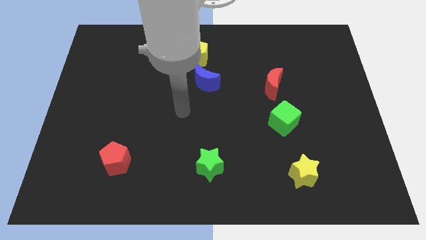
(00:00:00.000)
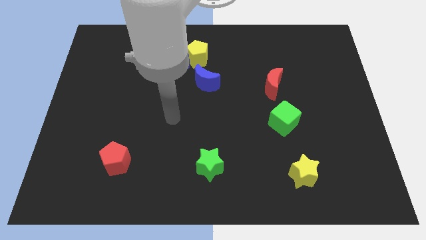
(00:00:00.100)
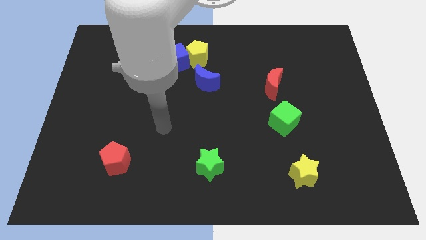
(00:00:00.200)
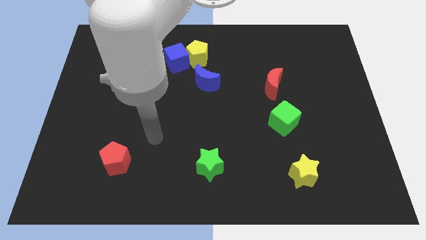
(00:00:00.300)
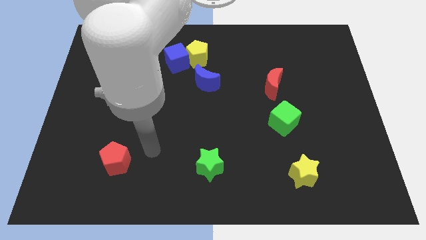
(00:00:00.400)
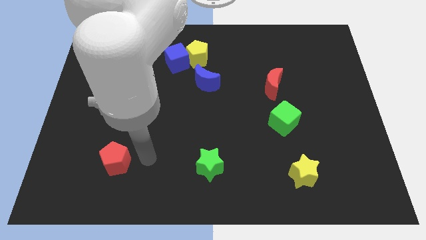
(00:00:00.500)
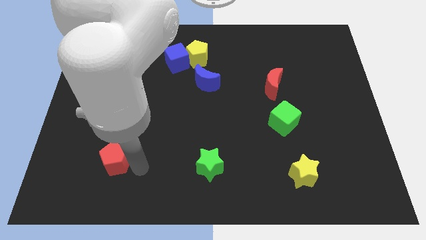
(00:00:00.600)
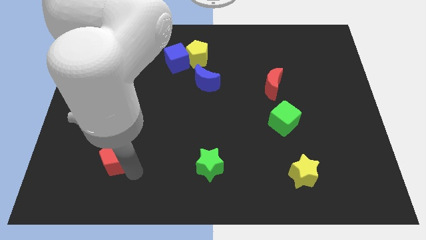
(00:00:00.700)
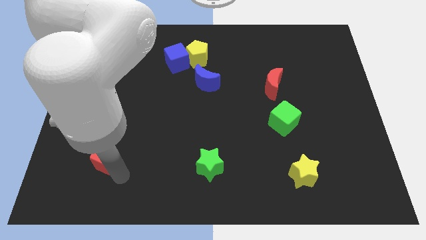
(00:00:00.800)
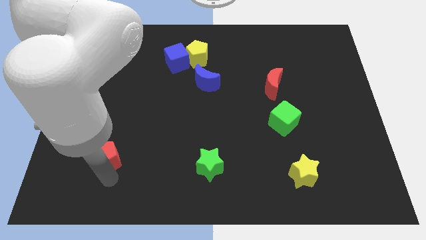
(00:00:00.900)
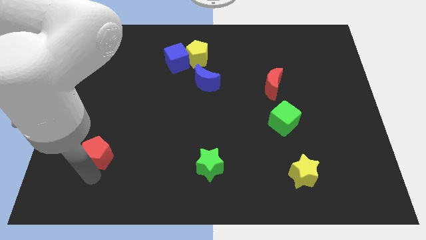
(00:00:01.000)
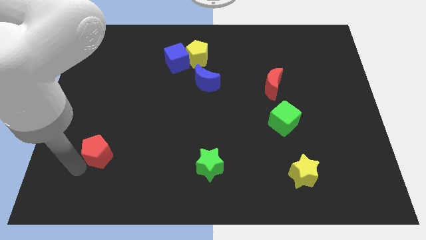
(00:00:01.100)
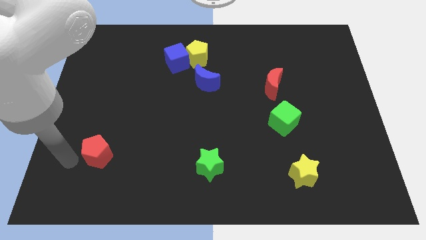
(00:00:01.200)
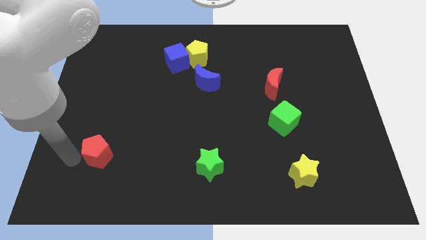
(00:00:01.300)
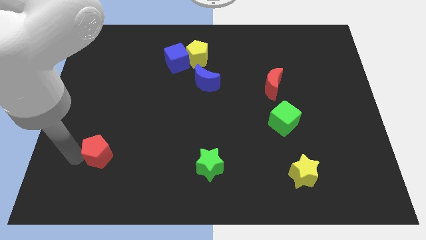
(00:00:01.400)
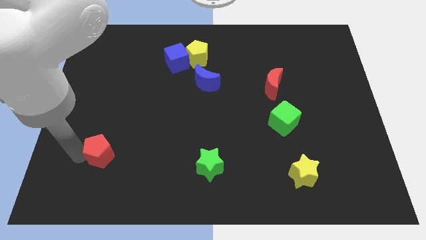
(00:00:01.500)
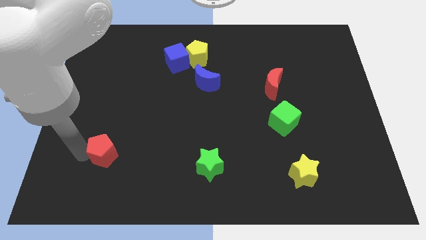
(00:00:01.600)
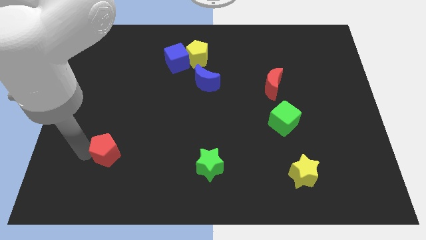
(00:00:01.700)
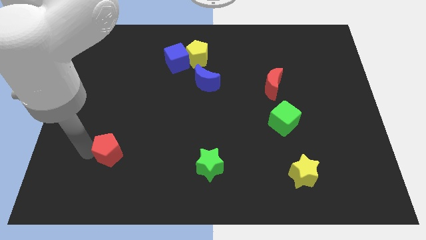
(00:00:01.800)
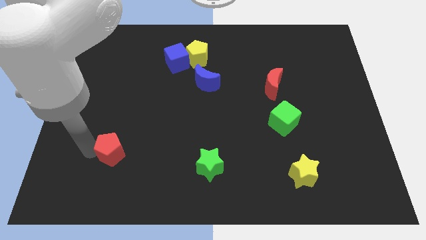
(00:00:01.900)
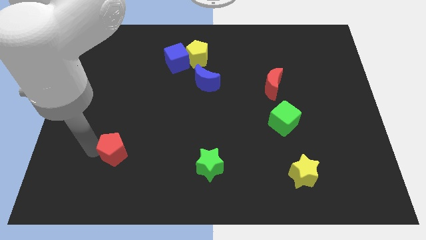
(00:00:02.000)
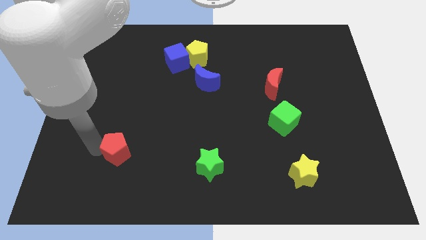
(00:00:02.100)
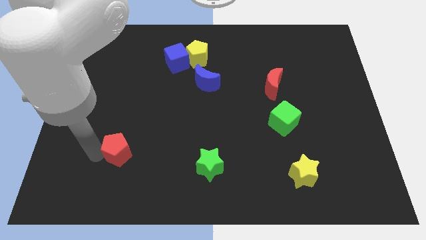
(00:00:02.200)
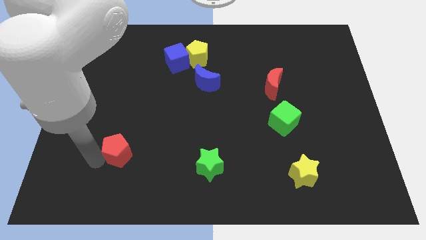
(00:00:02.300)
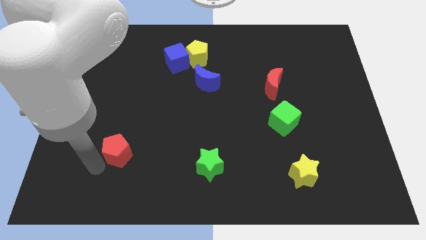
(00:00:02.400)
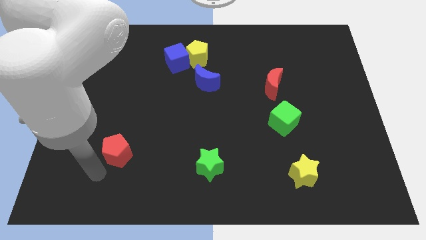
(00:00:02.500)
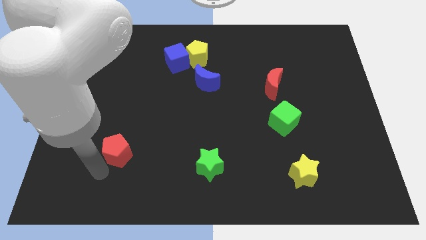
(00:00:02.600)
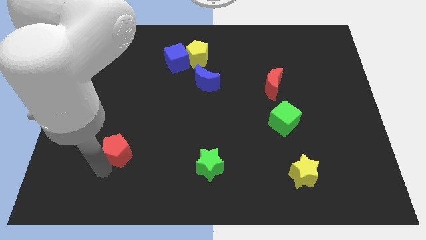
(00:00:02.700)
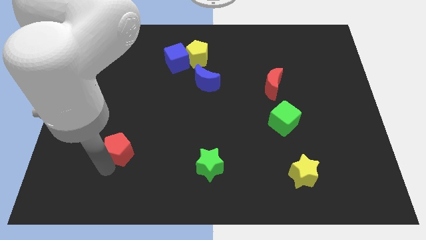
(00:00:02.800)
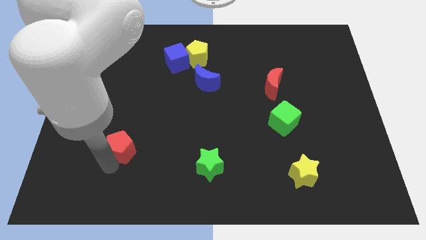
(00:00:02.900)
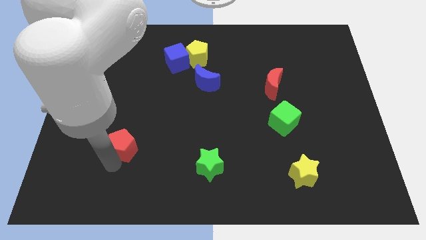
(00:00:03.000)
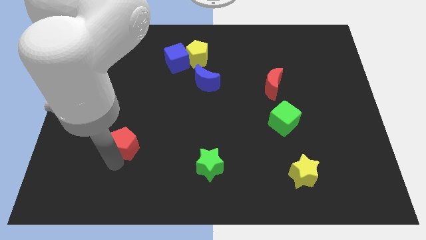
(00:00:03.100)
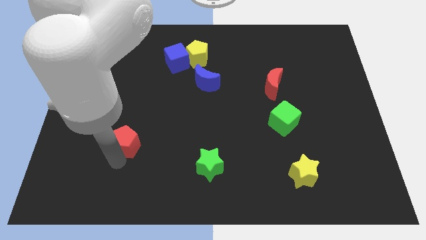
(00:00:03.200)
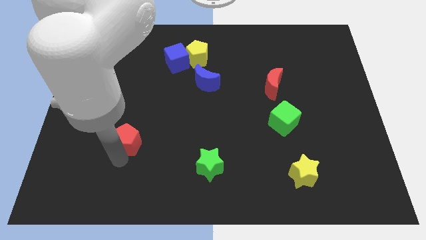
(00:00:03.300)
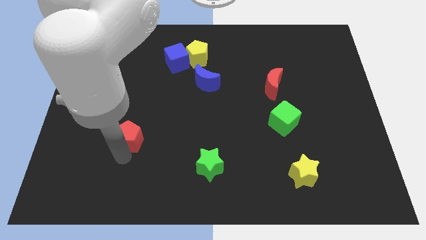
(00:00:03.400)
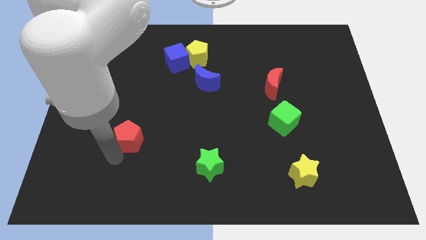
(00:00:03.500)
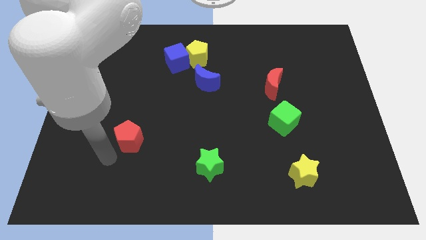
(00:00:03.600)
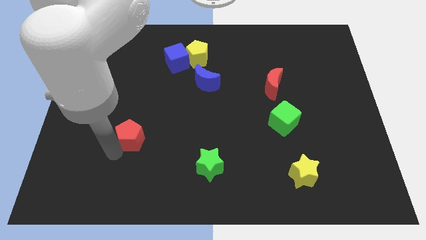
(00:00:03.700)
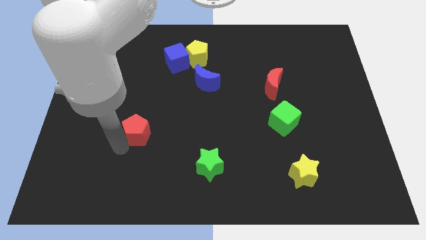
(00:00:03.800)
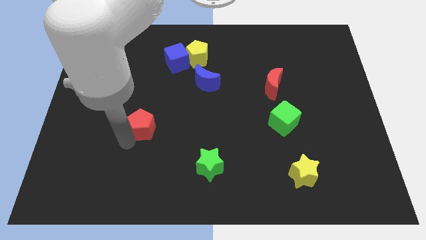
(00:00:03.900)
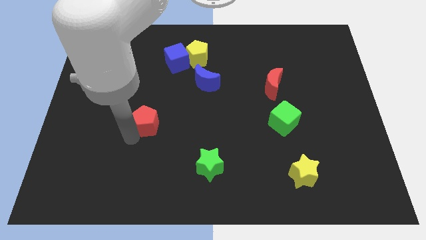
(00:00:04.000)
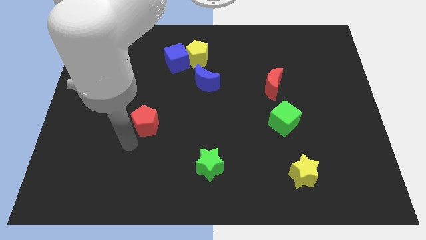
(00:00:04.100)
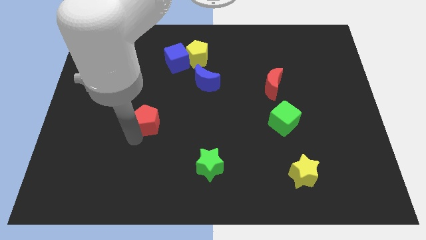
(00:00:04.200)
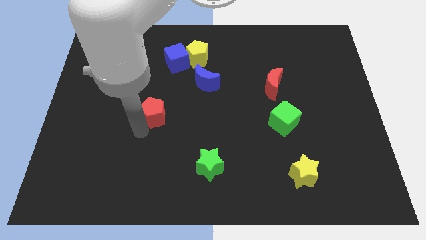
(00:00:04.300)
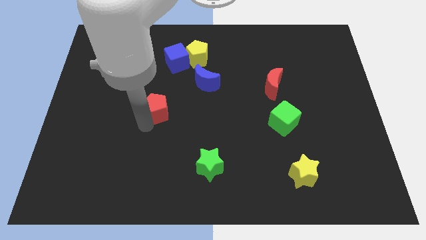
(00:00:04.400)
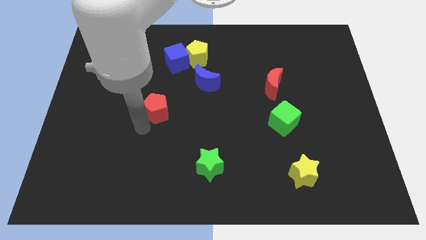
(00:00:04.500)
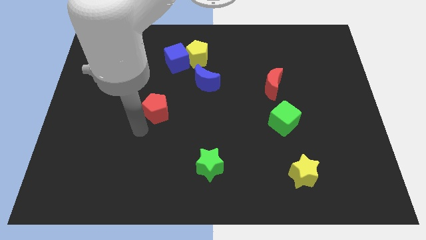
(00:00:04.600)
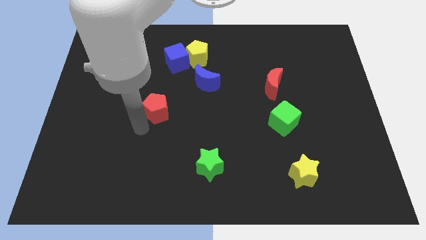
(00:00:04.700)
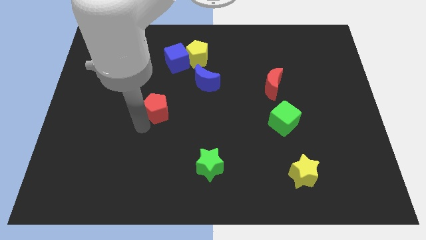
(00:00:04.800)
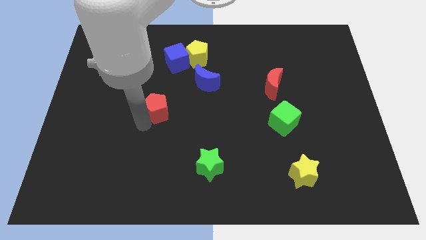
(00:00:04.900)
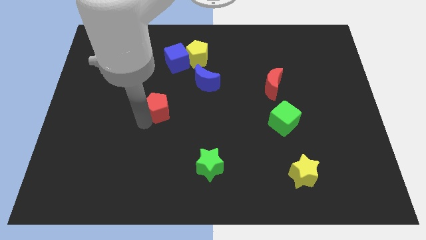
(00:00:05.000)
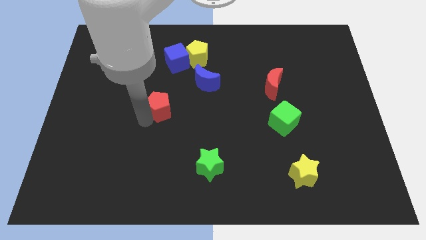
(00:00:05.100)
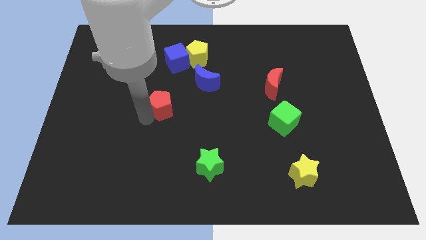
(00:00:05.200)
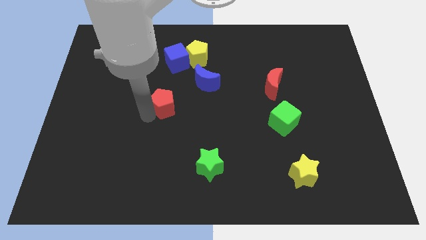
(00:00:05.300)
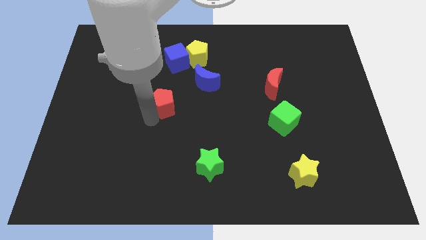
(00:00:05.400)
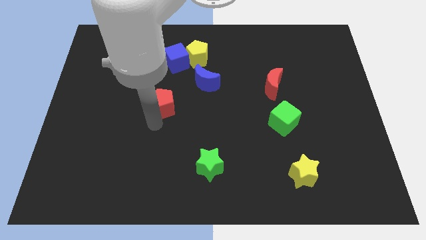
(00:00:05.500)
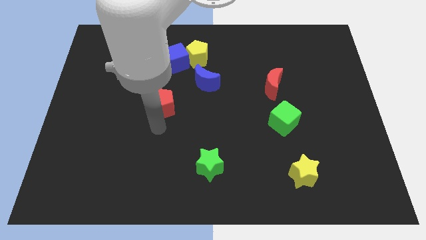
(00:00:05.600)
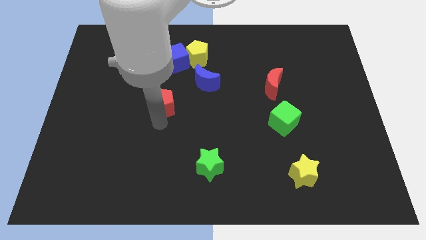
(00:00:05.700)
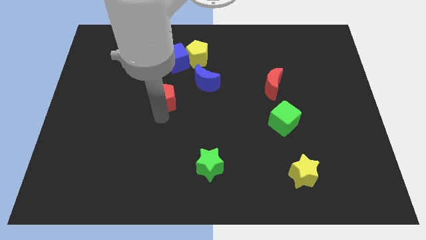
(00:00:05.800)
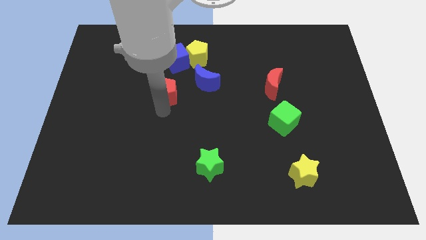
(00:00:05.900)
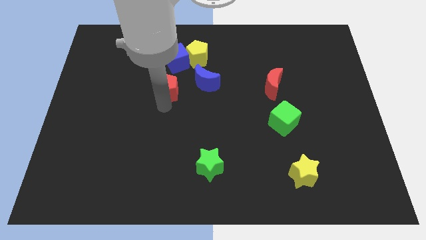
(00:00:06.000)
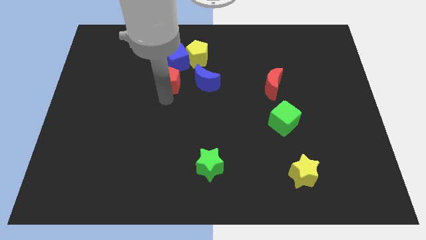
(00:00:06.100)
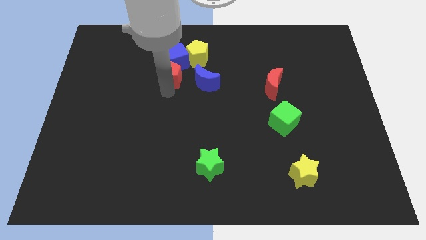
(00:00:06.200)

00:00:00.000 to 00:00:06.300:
slide the red pentagon next to the blue cube

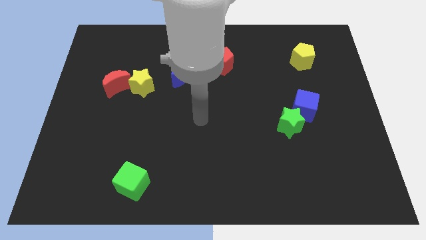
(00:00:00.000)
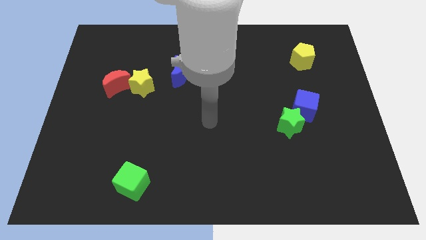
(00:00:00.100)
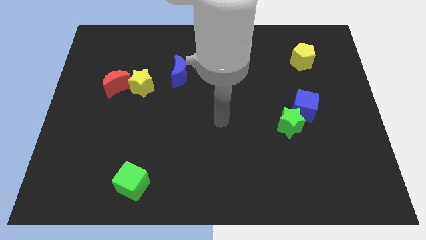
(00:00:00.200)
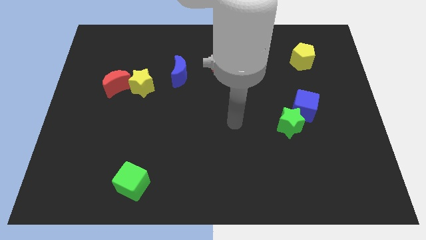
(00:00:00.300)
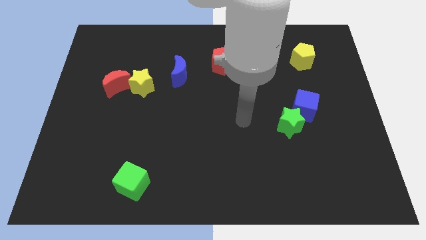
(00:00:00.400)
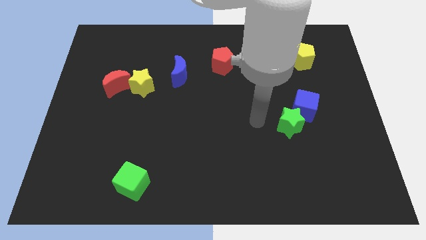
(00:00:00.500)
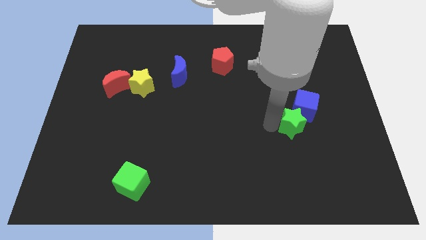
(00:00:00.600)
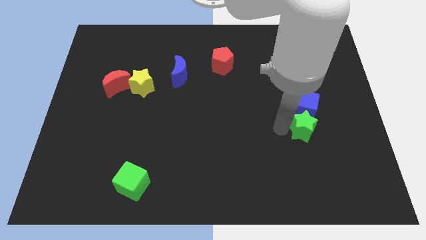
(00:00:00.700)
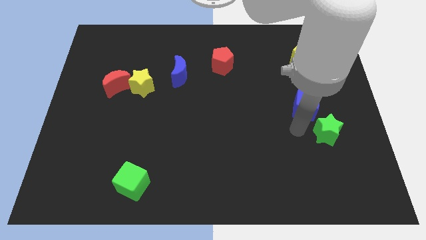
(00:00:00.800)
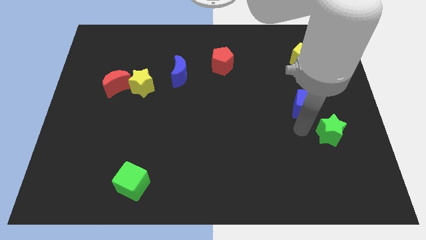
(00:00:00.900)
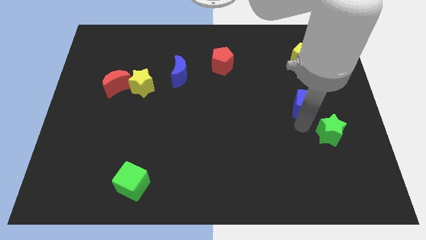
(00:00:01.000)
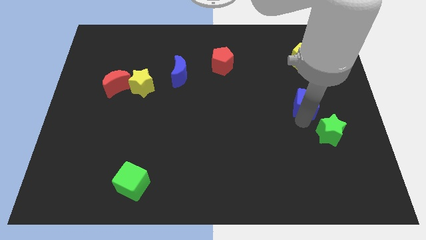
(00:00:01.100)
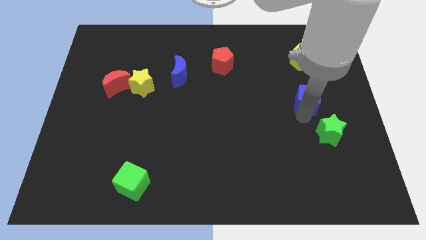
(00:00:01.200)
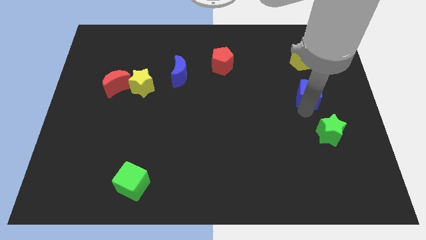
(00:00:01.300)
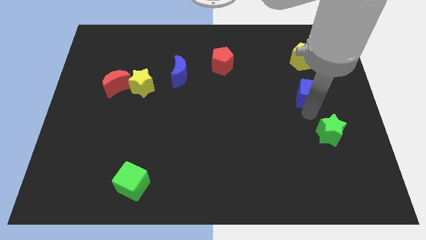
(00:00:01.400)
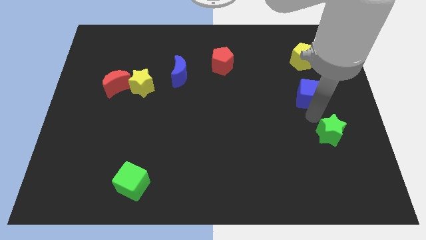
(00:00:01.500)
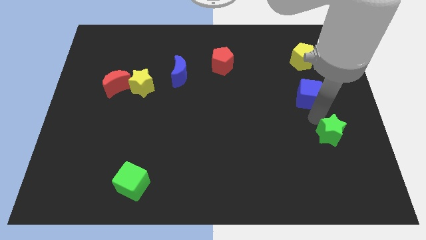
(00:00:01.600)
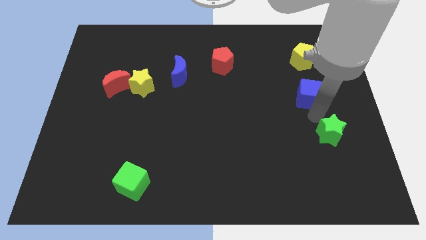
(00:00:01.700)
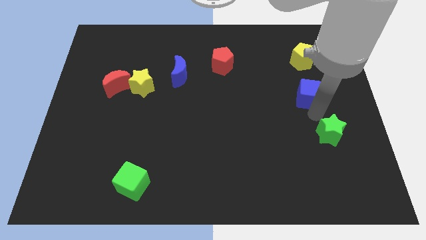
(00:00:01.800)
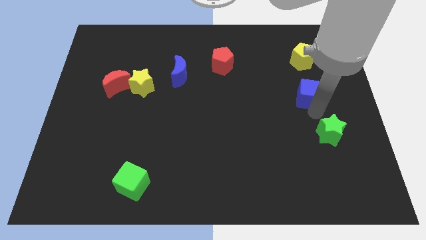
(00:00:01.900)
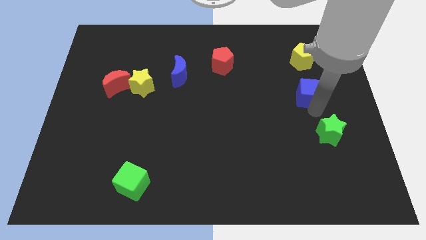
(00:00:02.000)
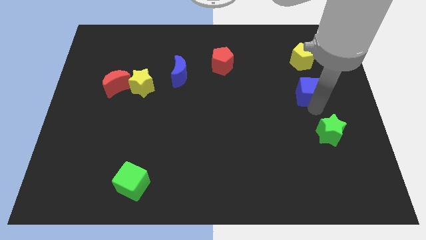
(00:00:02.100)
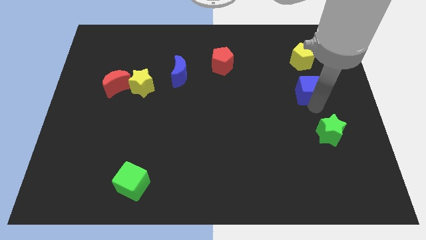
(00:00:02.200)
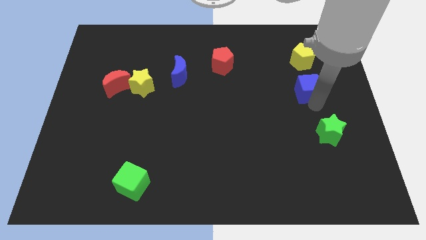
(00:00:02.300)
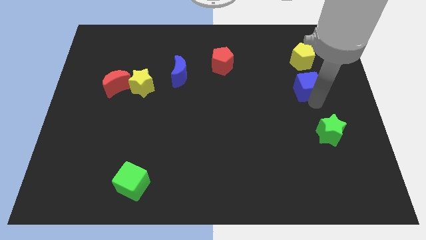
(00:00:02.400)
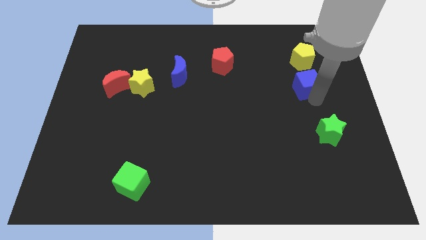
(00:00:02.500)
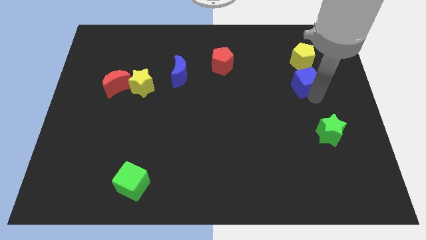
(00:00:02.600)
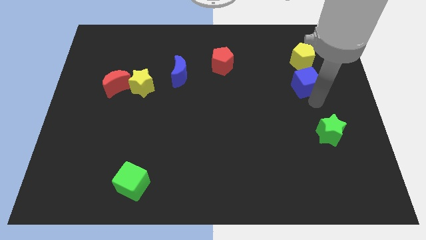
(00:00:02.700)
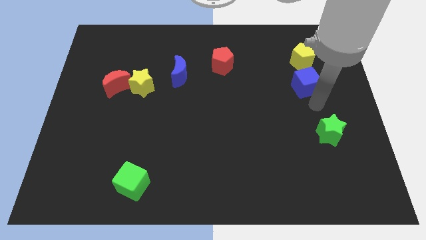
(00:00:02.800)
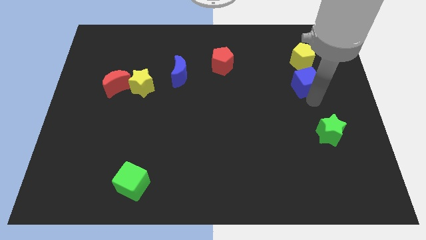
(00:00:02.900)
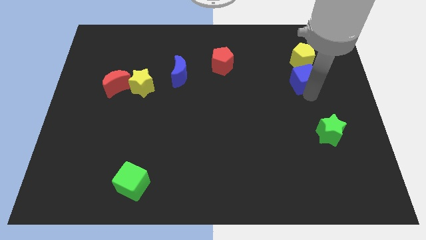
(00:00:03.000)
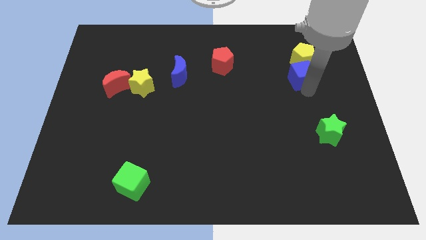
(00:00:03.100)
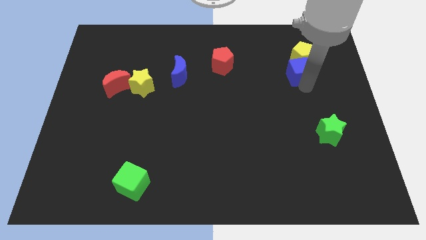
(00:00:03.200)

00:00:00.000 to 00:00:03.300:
slide the blue cube towards the yellow pentagon
